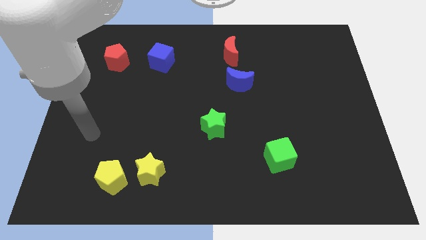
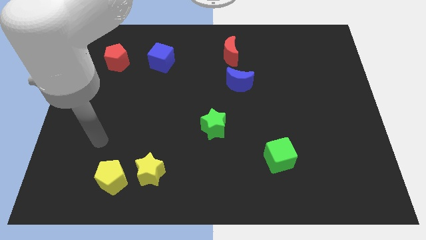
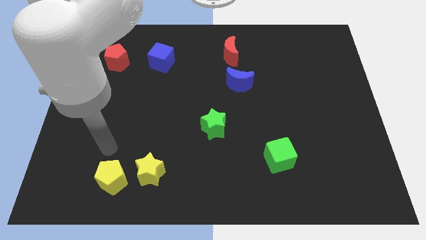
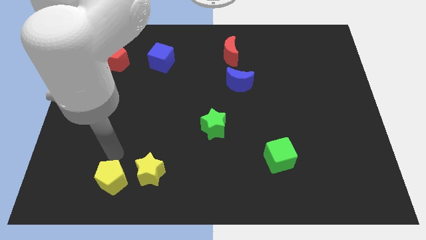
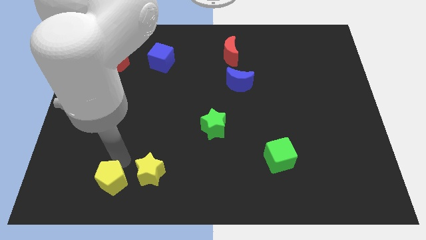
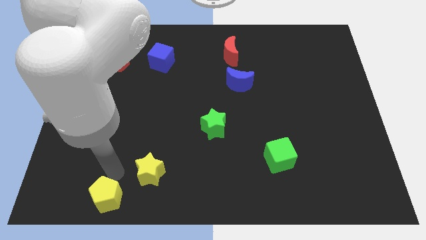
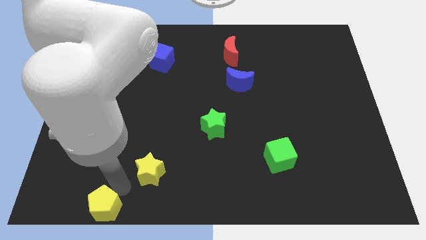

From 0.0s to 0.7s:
move the yellow star away from the yellow pentagon

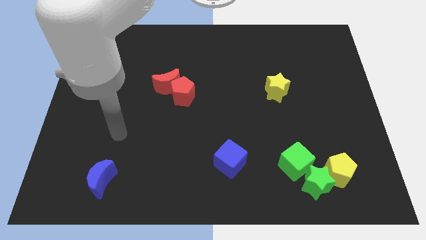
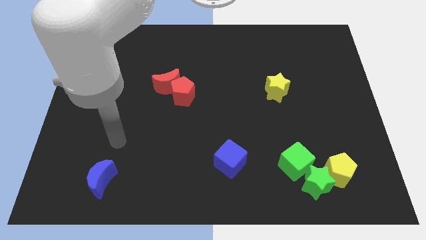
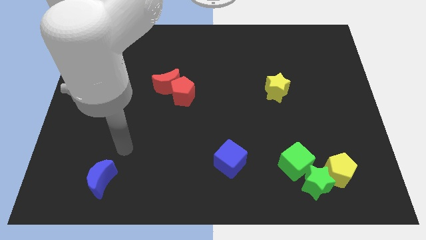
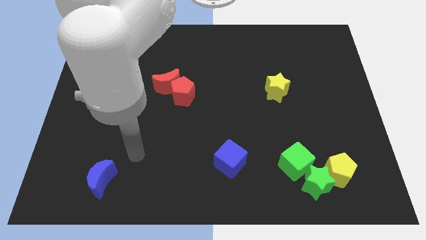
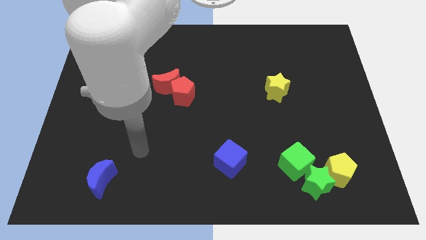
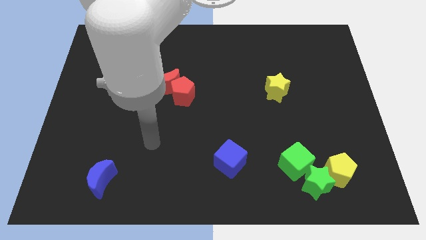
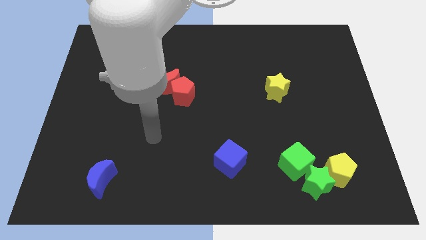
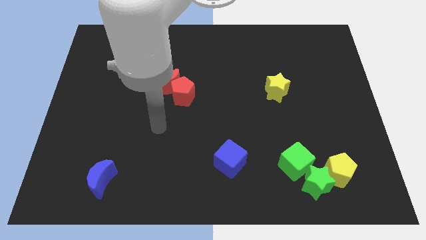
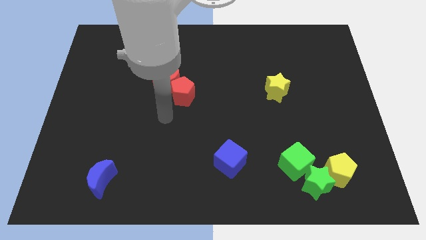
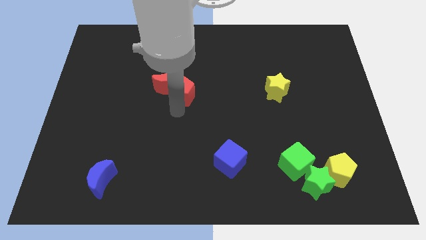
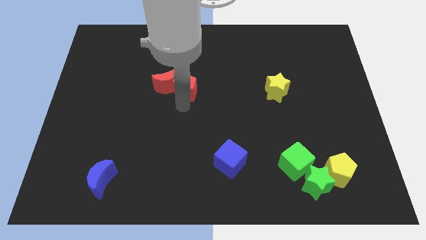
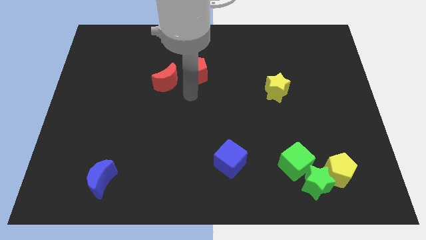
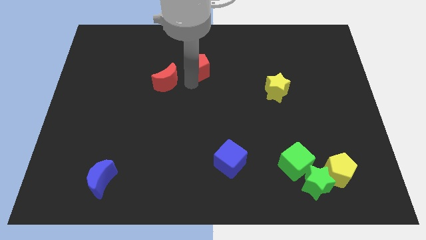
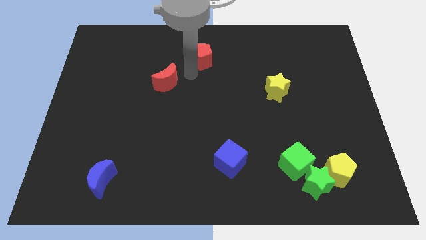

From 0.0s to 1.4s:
separate the red moon from the red pentagon

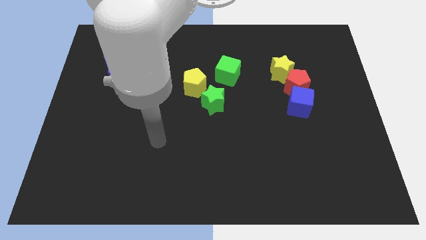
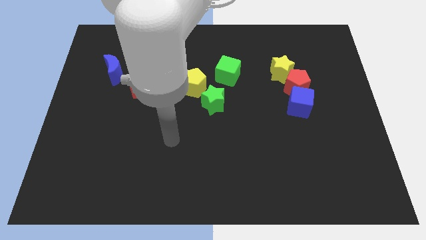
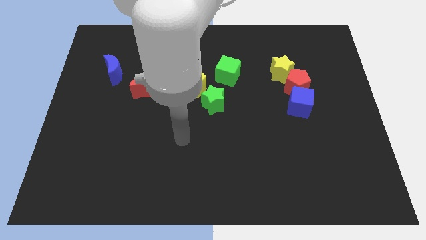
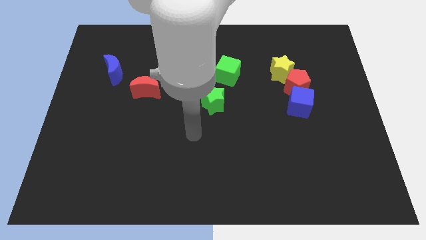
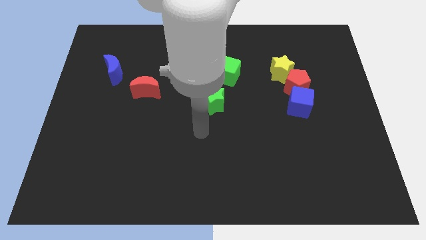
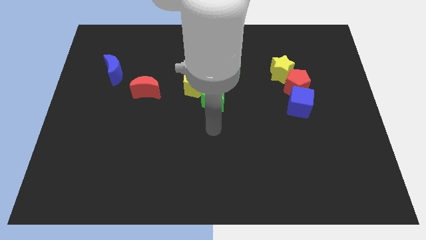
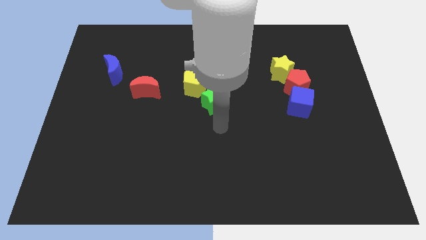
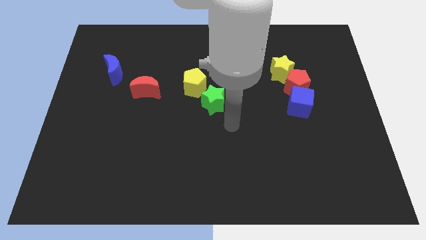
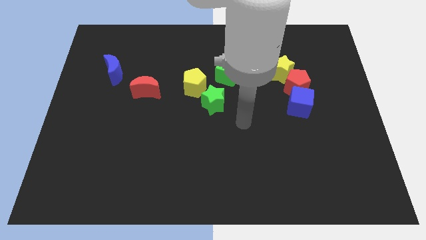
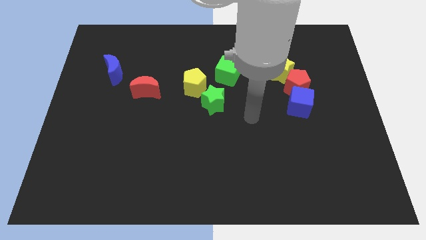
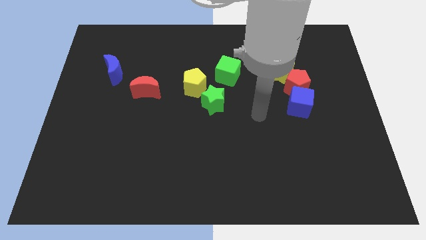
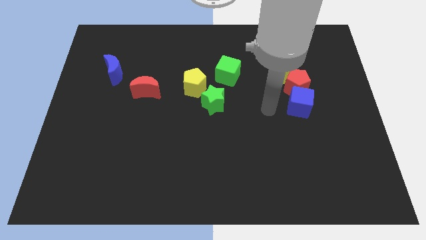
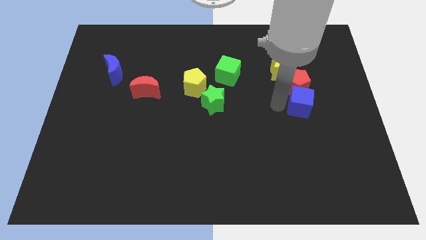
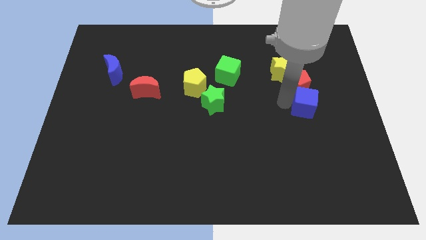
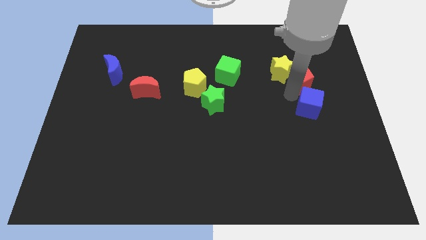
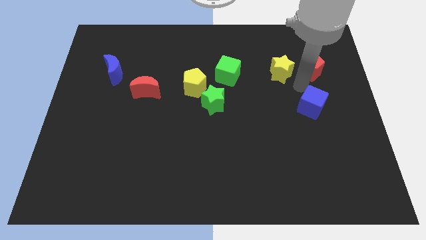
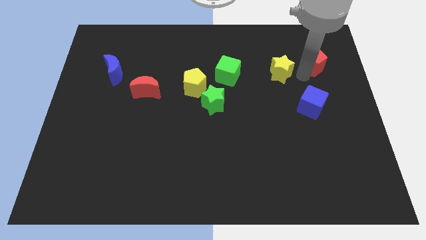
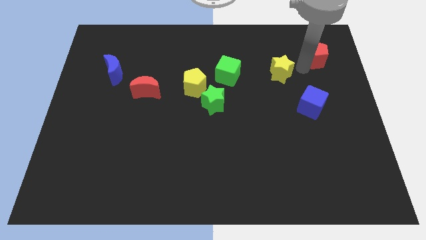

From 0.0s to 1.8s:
separate the yellow star from the red pentagon

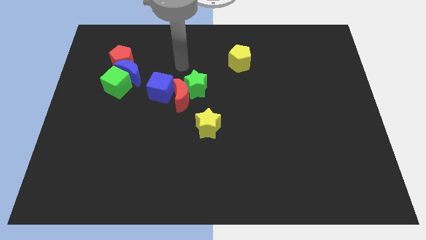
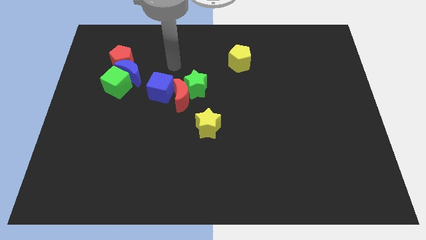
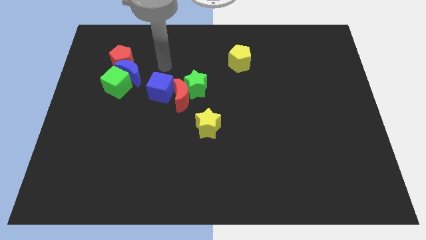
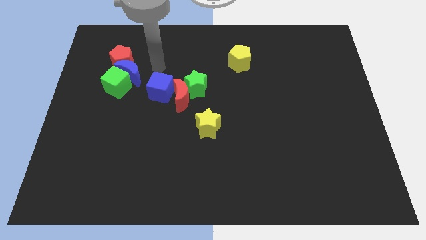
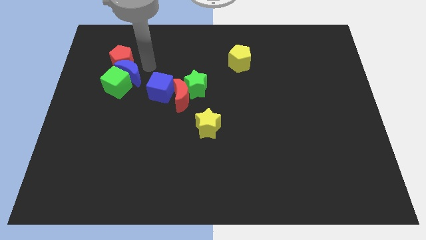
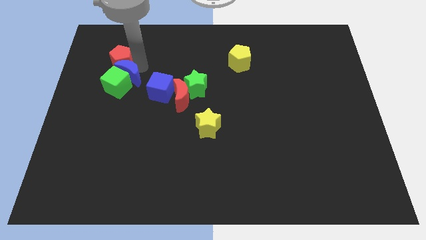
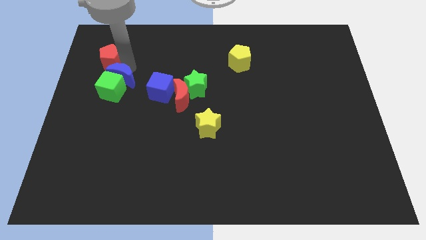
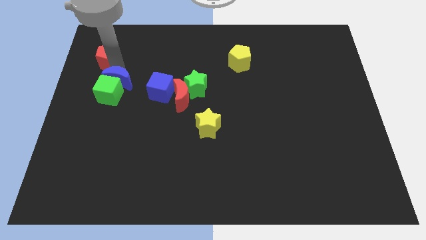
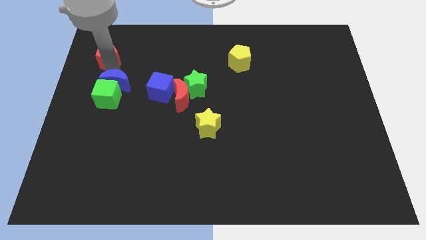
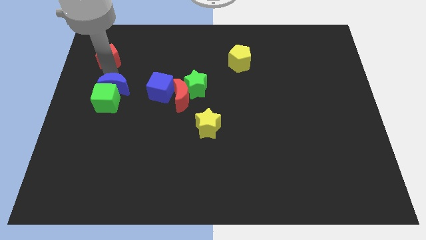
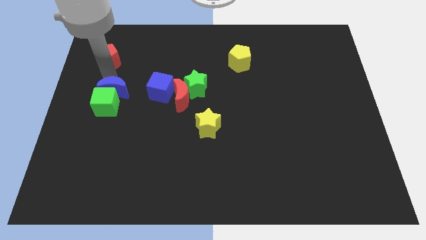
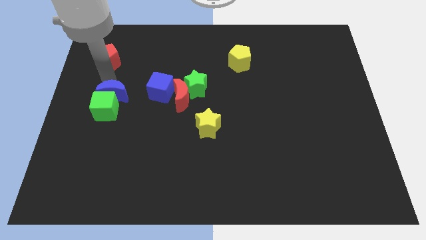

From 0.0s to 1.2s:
pull the green cube apart from the blue moon and red pentagon

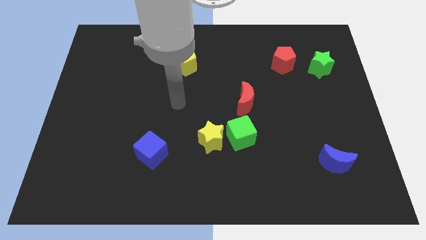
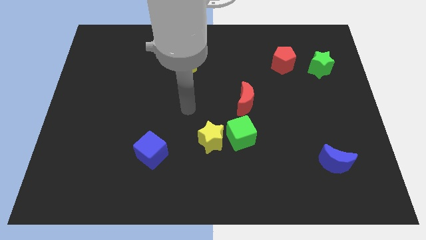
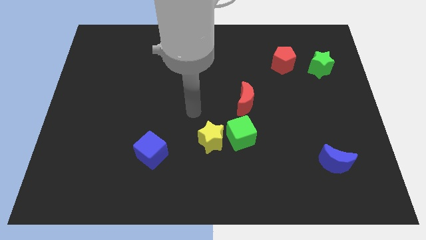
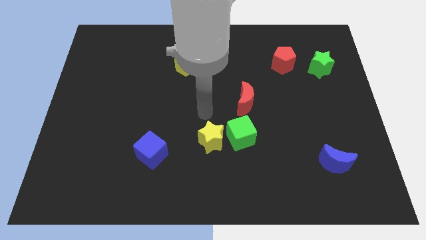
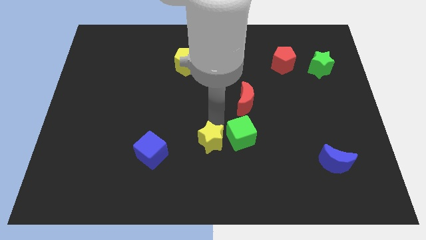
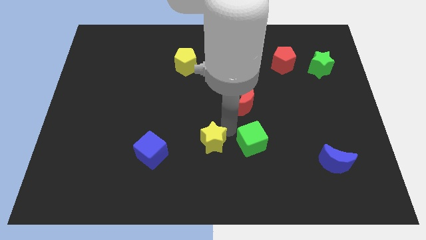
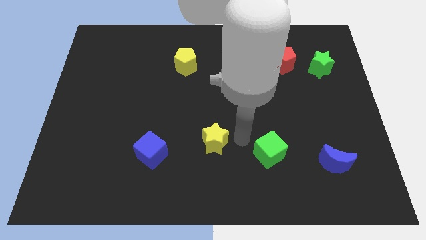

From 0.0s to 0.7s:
pull the yellow star apart from the green cube

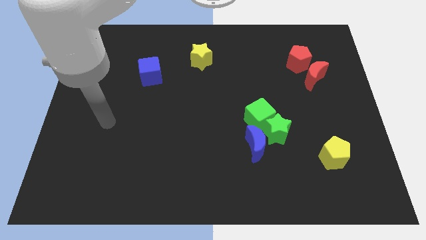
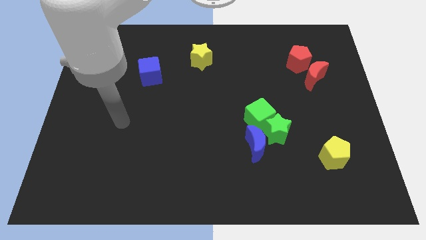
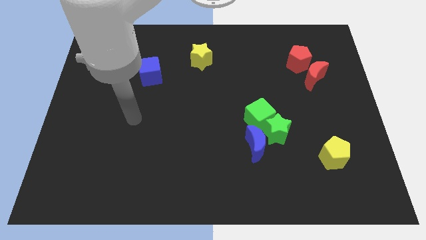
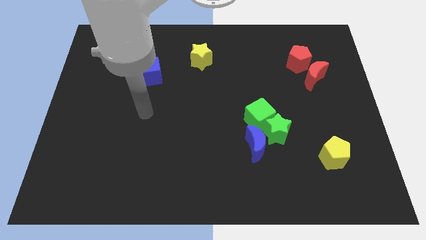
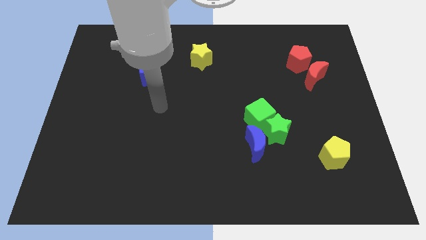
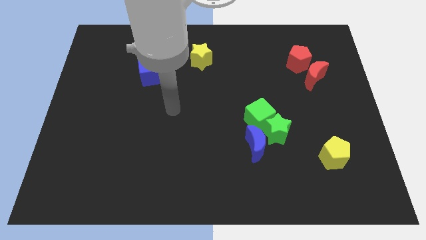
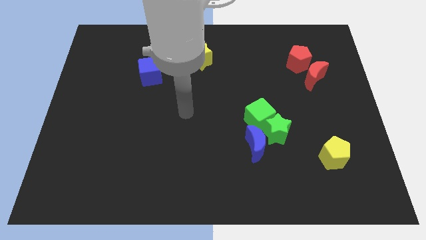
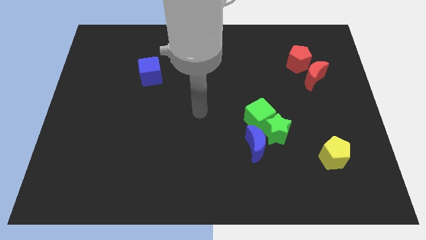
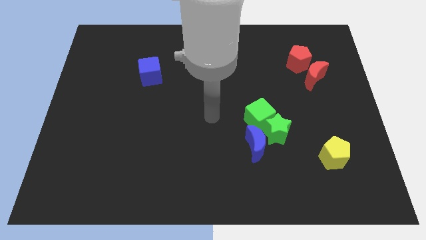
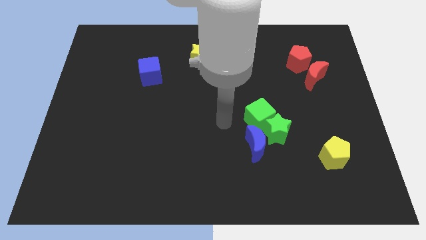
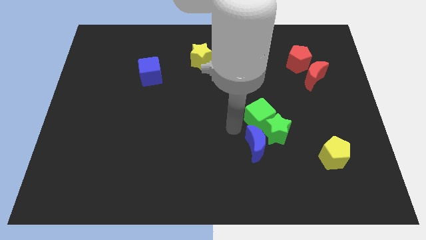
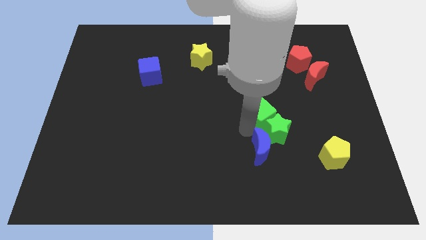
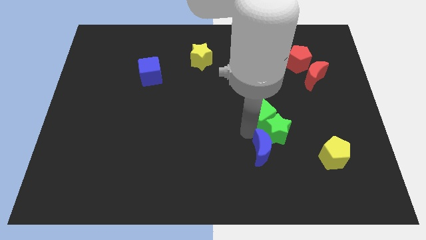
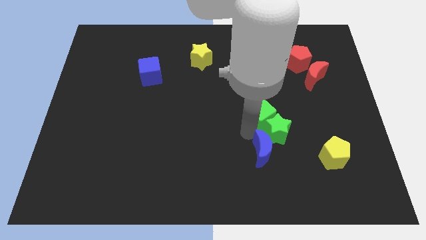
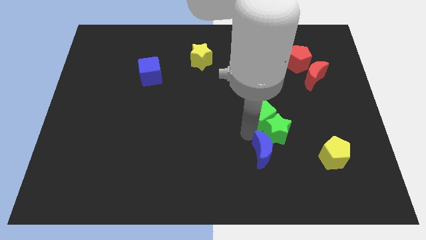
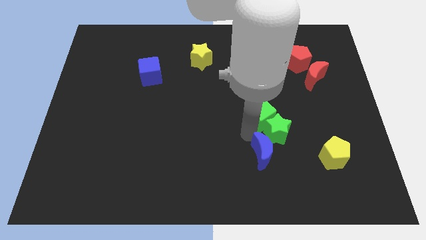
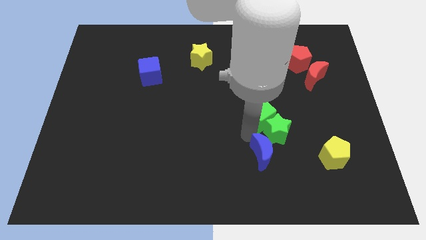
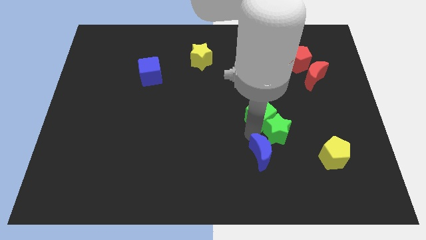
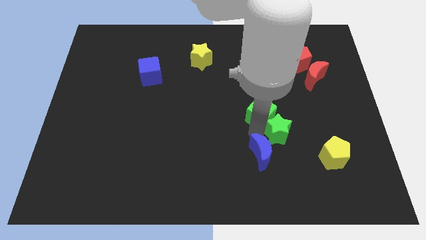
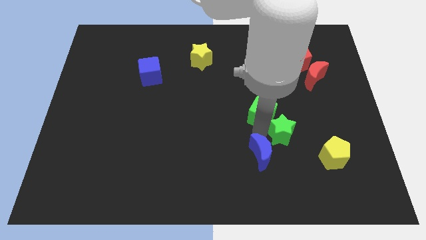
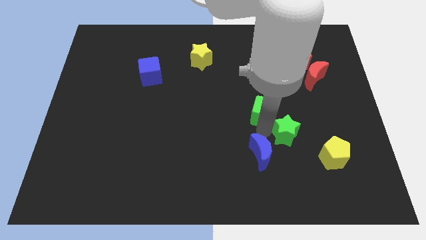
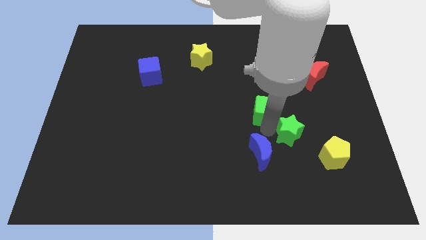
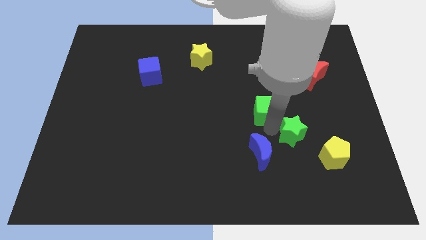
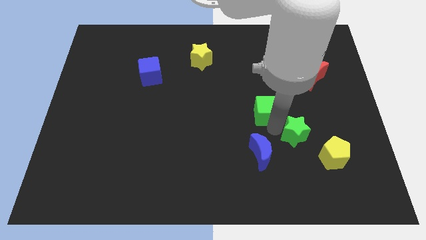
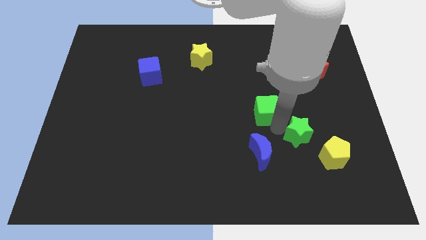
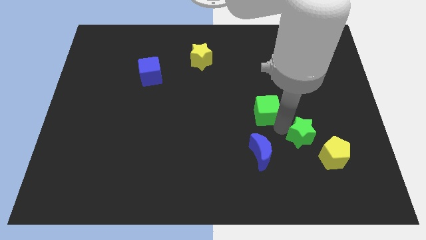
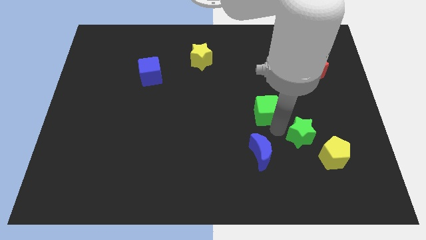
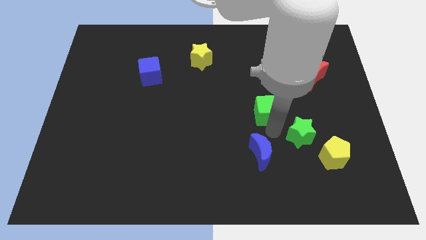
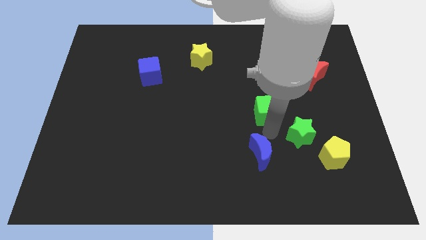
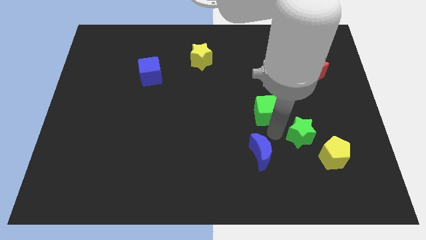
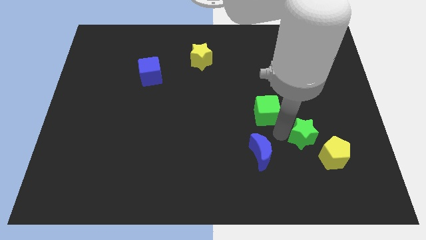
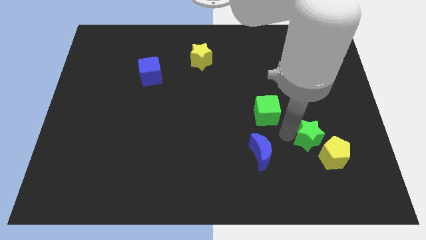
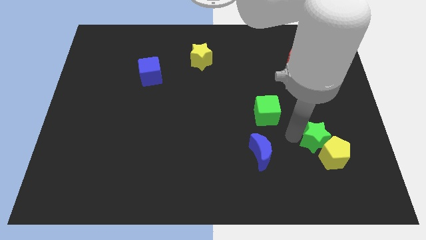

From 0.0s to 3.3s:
separate the green star from the green cube and blue moon

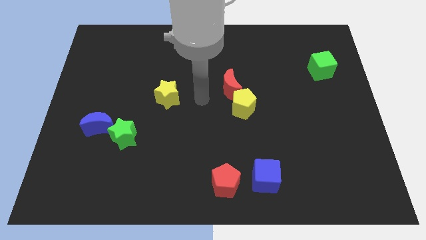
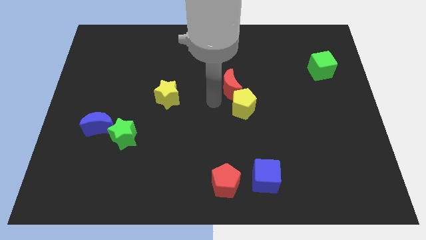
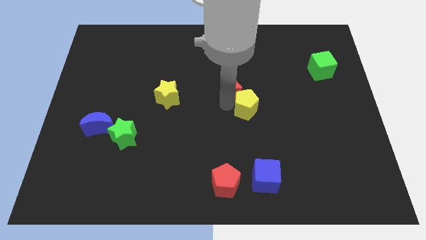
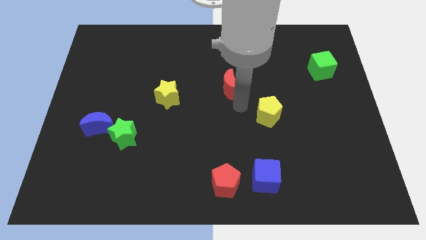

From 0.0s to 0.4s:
pull the red moon apart from the yellow pentagon
